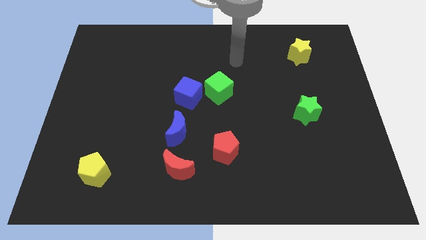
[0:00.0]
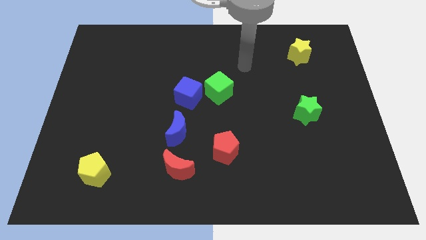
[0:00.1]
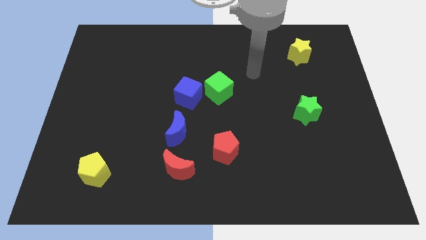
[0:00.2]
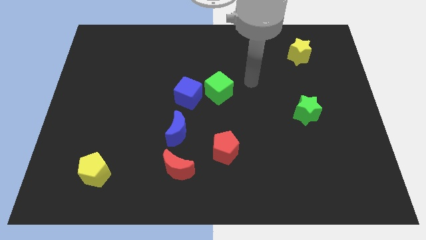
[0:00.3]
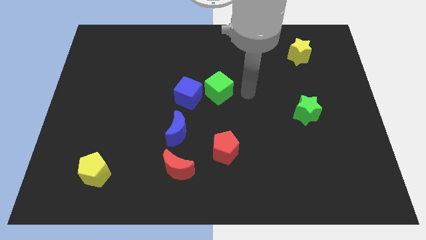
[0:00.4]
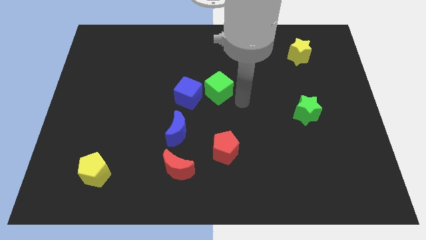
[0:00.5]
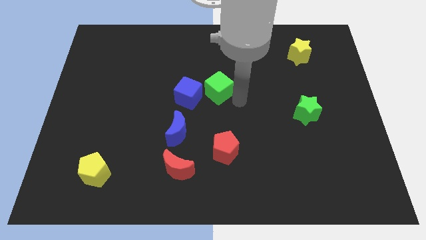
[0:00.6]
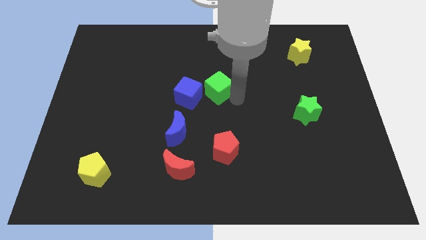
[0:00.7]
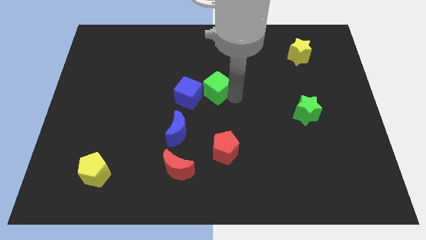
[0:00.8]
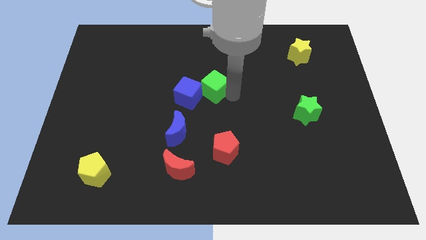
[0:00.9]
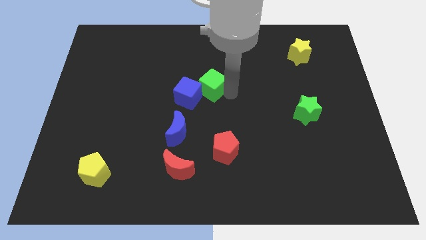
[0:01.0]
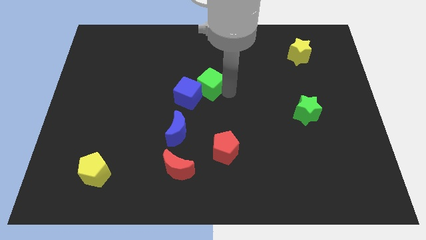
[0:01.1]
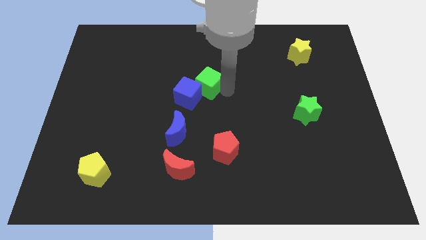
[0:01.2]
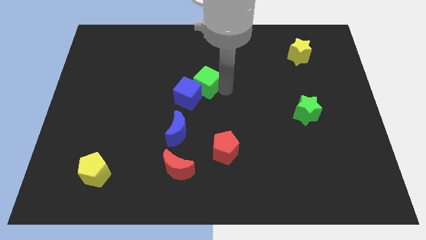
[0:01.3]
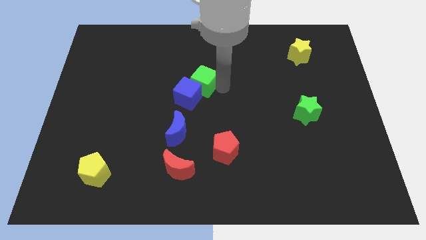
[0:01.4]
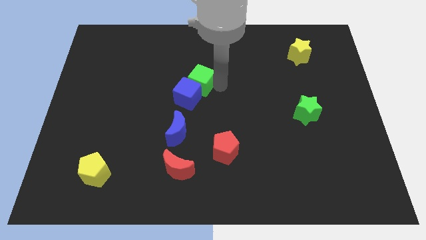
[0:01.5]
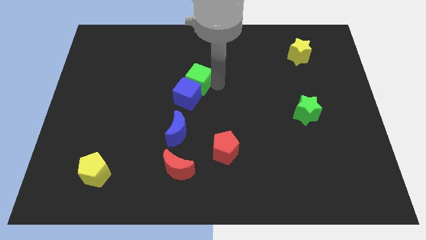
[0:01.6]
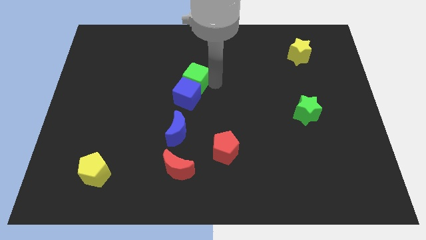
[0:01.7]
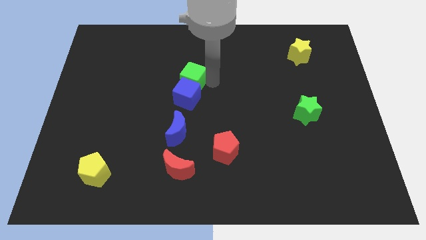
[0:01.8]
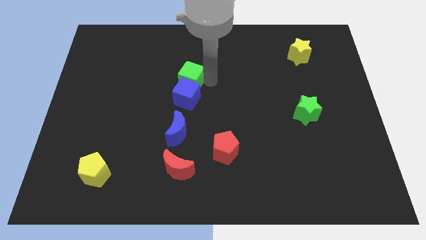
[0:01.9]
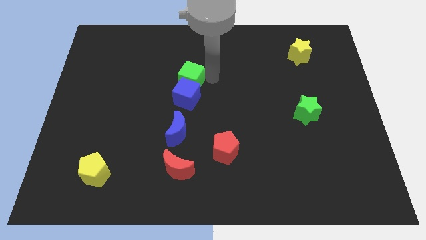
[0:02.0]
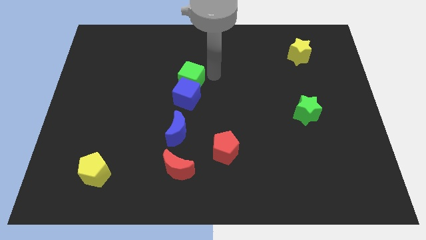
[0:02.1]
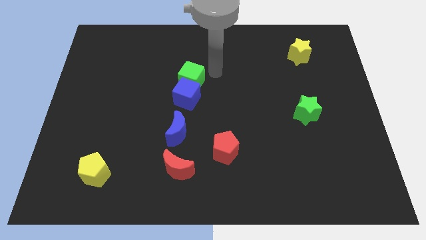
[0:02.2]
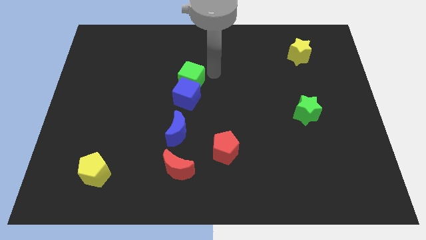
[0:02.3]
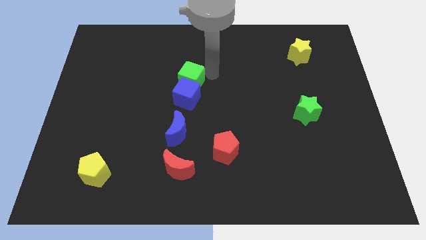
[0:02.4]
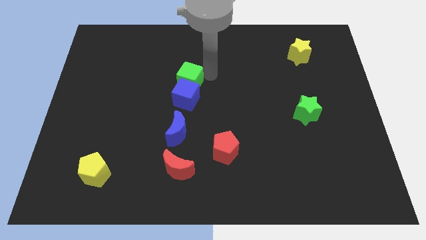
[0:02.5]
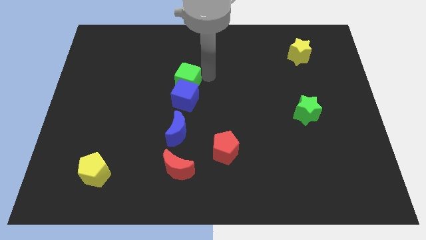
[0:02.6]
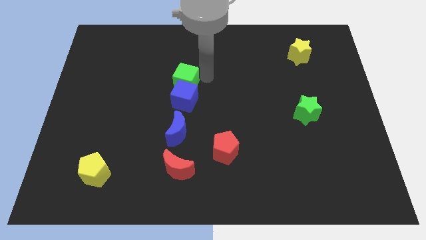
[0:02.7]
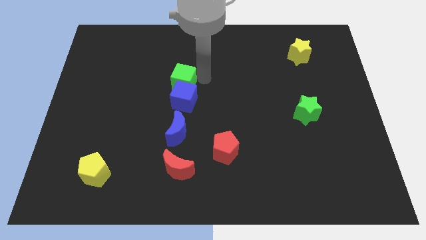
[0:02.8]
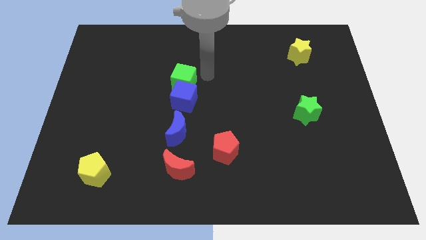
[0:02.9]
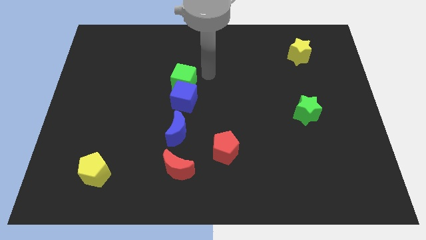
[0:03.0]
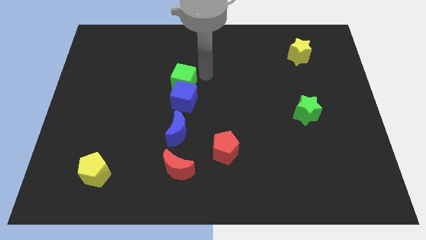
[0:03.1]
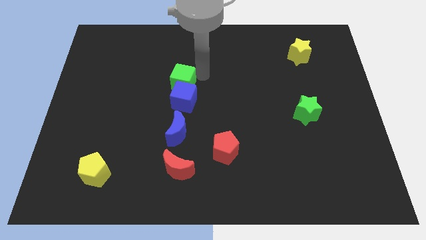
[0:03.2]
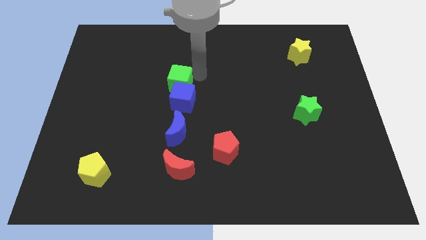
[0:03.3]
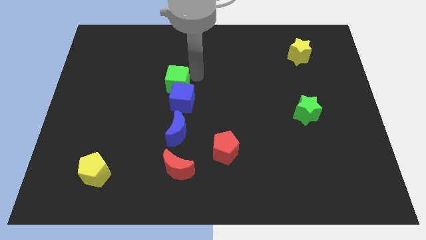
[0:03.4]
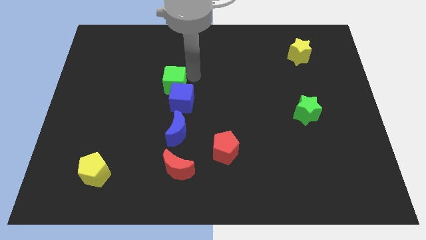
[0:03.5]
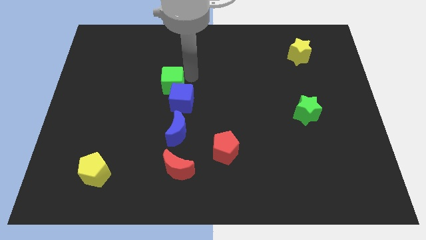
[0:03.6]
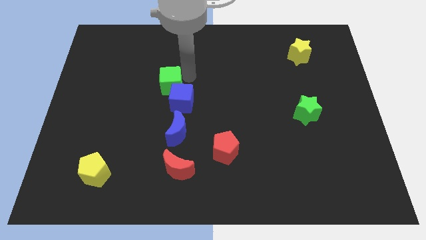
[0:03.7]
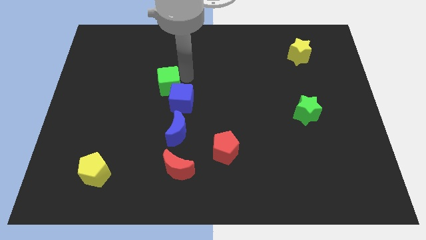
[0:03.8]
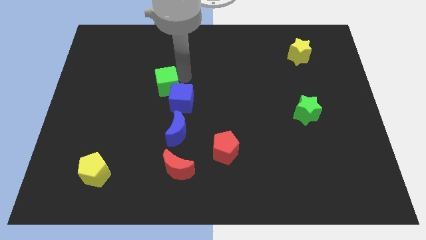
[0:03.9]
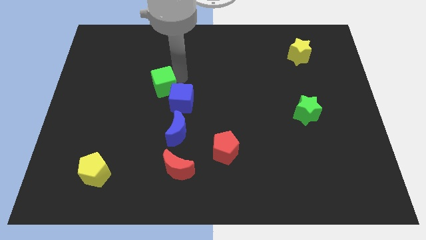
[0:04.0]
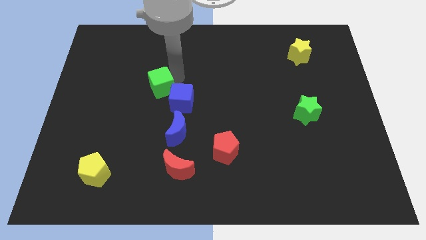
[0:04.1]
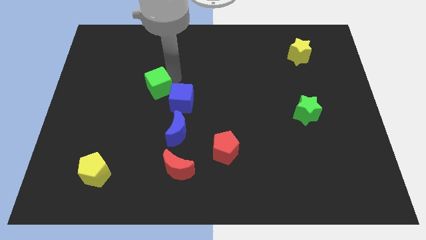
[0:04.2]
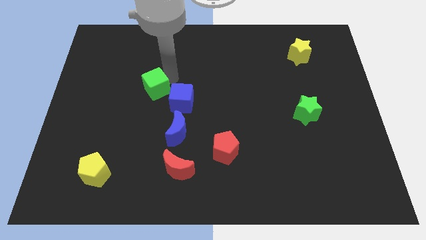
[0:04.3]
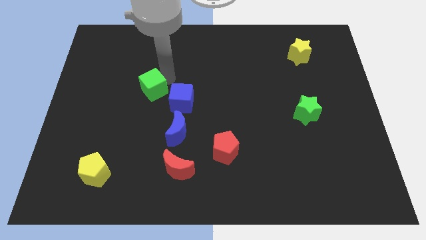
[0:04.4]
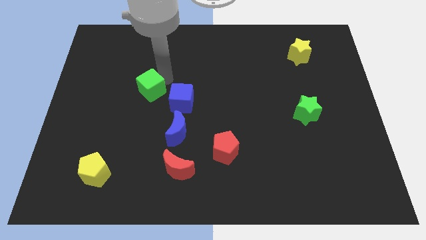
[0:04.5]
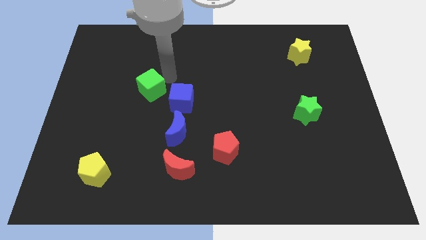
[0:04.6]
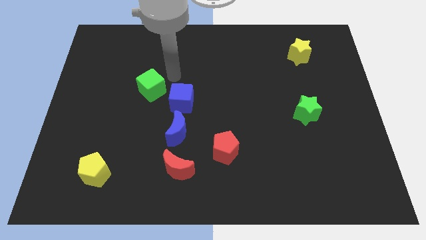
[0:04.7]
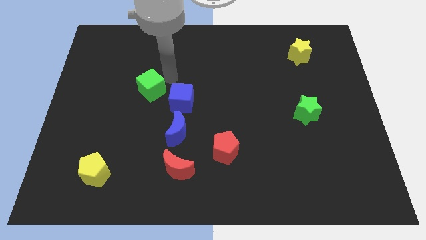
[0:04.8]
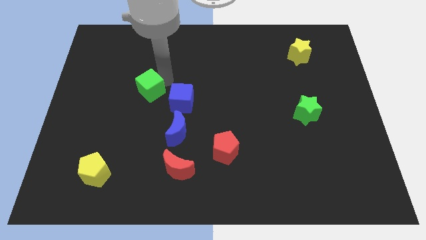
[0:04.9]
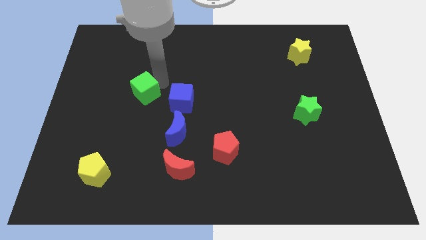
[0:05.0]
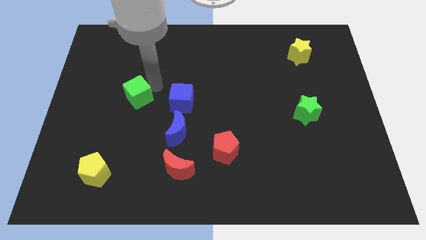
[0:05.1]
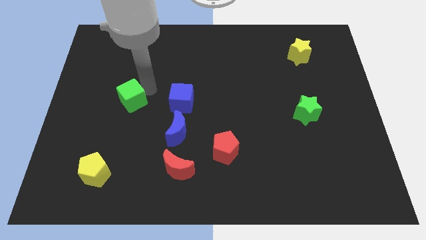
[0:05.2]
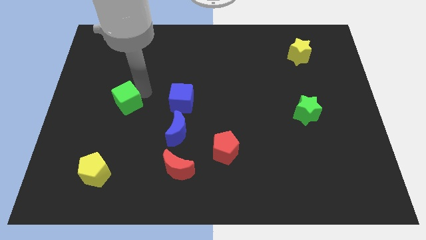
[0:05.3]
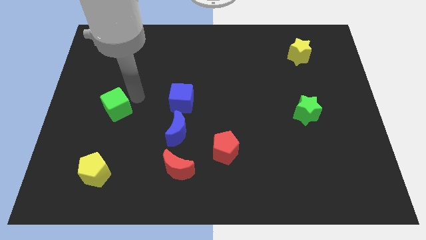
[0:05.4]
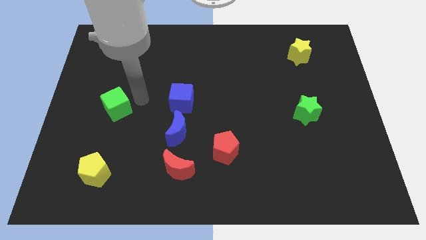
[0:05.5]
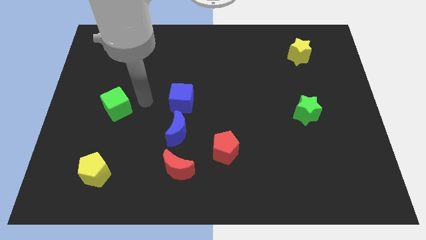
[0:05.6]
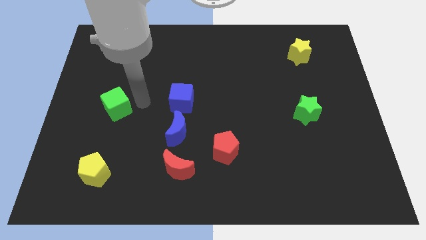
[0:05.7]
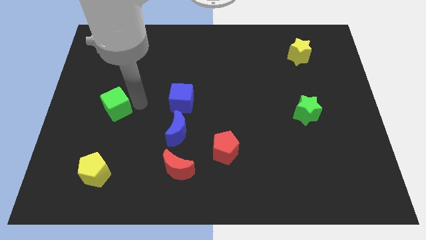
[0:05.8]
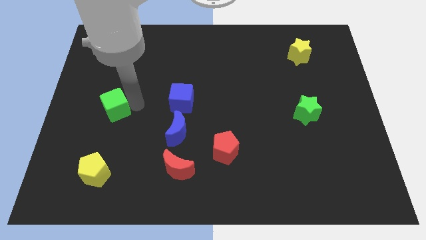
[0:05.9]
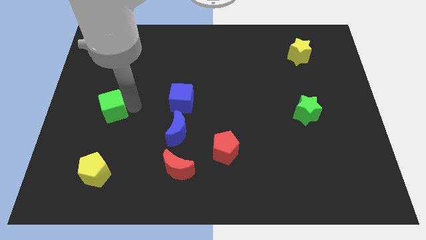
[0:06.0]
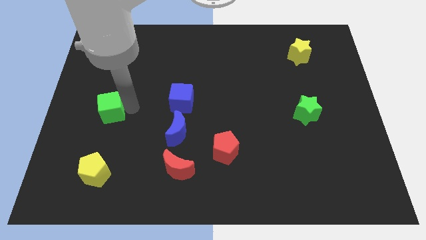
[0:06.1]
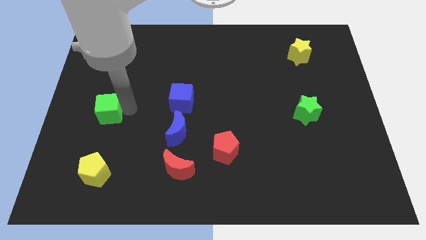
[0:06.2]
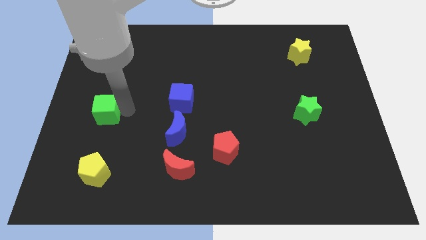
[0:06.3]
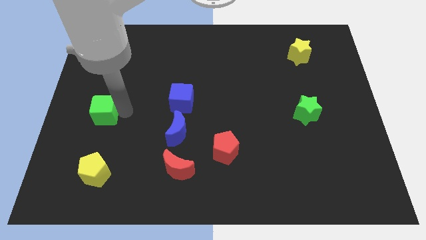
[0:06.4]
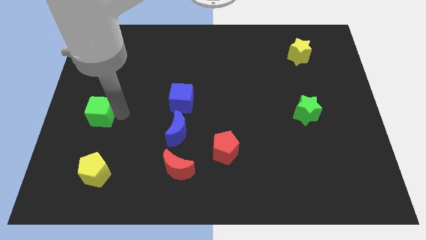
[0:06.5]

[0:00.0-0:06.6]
slide the green cube to the center left
